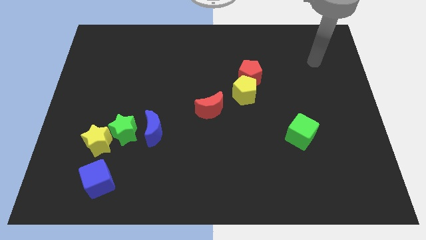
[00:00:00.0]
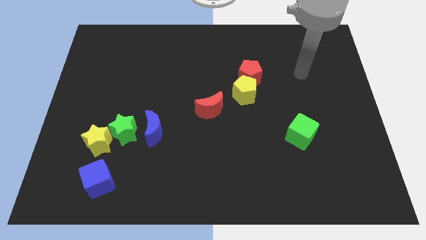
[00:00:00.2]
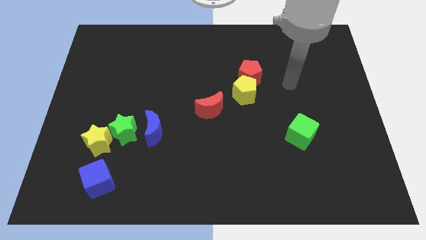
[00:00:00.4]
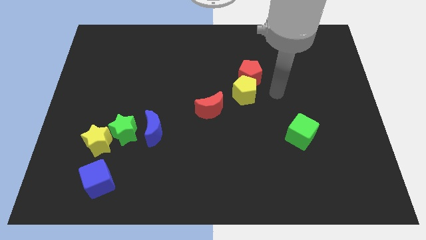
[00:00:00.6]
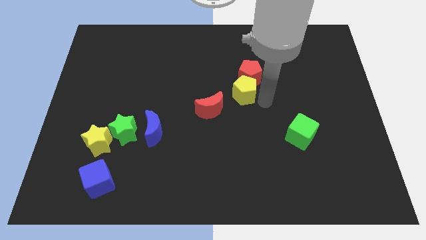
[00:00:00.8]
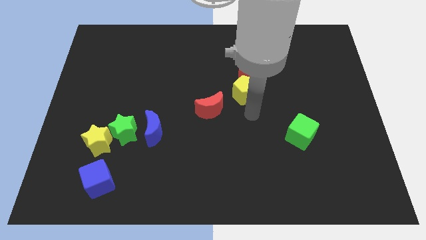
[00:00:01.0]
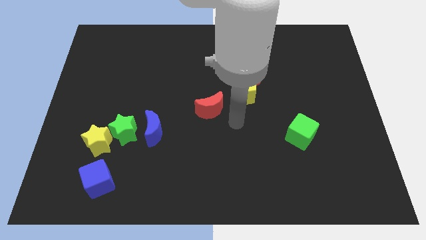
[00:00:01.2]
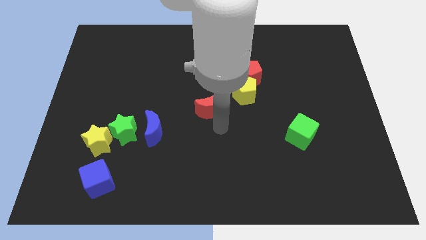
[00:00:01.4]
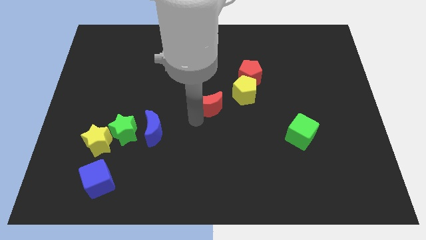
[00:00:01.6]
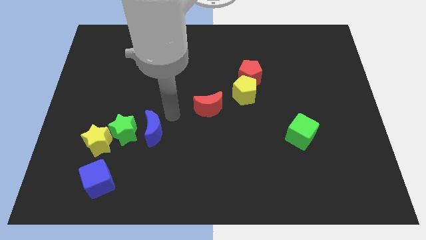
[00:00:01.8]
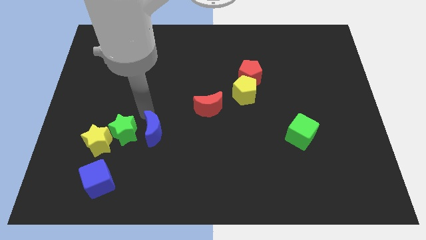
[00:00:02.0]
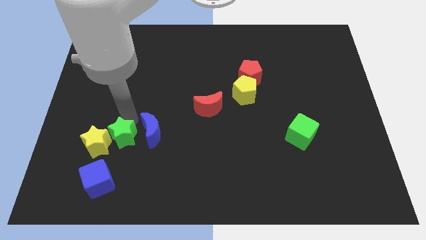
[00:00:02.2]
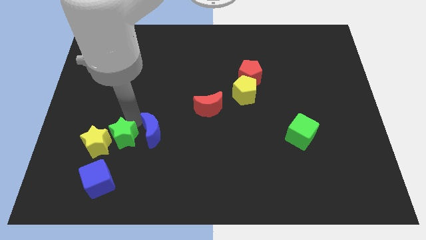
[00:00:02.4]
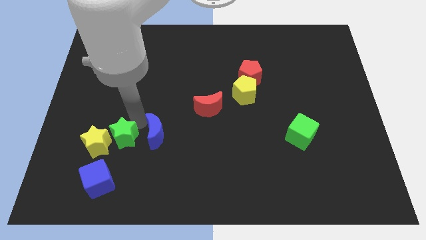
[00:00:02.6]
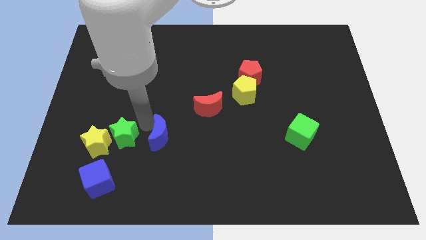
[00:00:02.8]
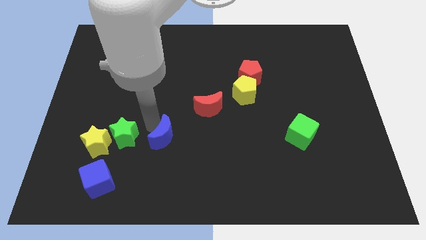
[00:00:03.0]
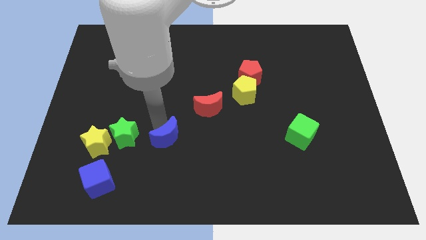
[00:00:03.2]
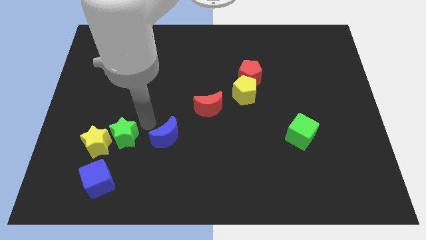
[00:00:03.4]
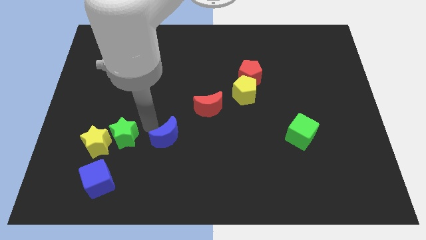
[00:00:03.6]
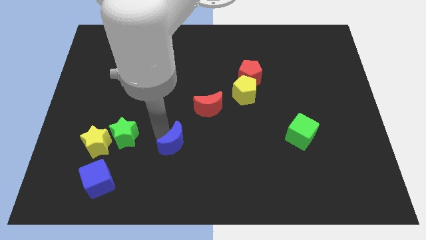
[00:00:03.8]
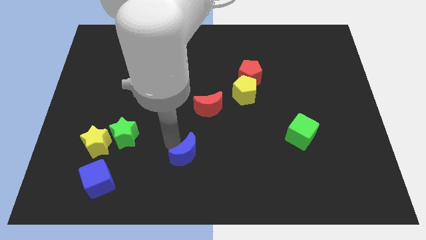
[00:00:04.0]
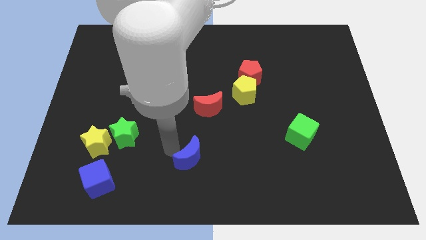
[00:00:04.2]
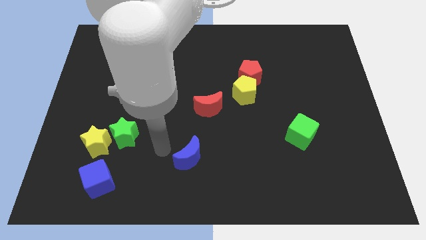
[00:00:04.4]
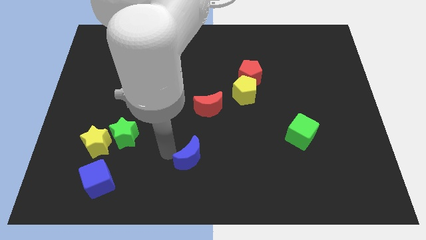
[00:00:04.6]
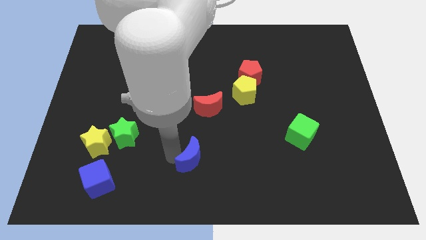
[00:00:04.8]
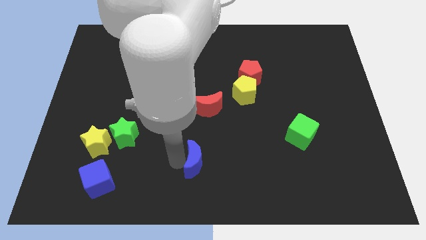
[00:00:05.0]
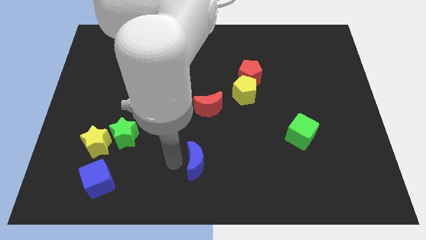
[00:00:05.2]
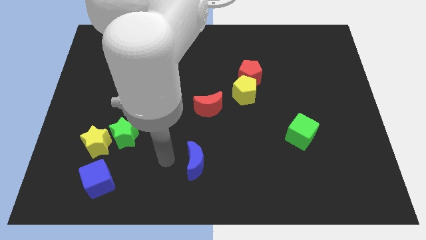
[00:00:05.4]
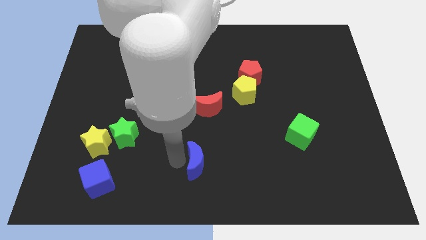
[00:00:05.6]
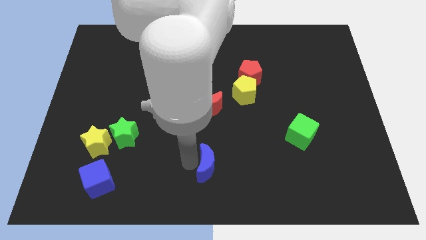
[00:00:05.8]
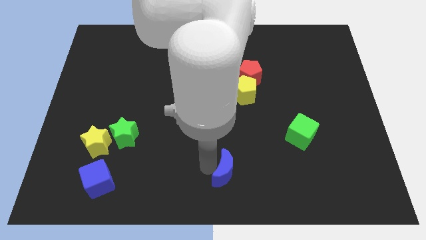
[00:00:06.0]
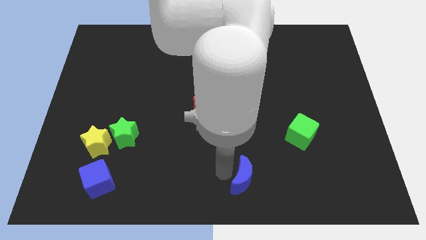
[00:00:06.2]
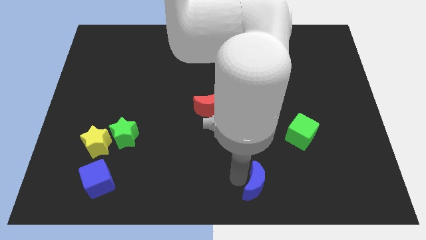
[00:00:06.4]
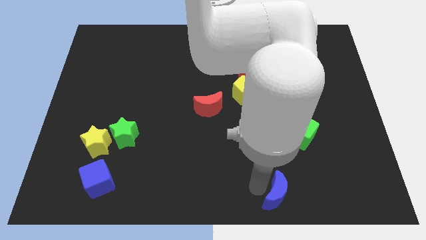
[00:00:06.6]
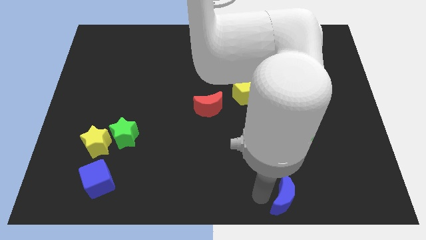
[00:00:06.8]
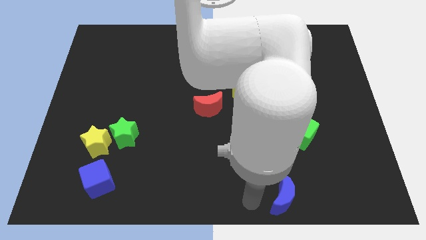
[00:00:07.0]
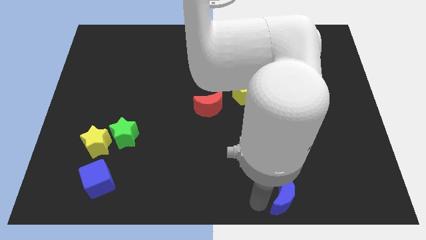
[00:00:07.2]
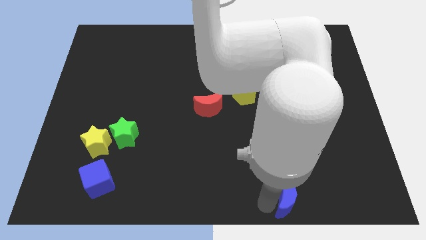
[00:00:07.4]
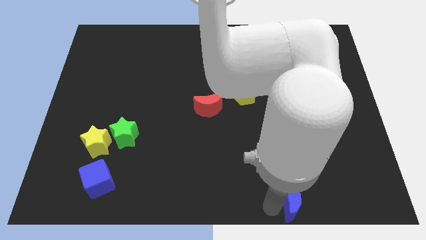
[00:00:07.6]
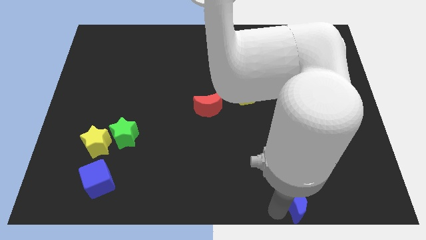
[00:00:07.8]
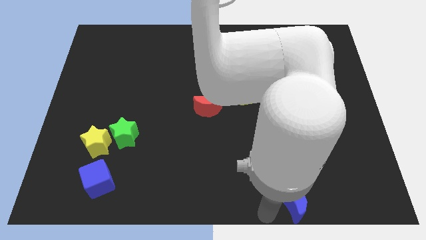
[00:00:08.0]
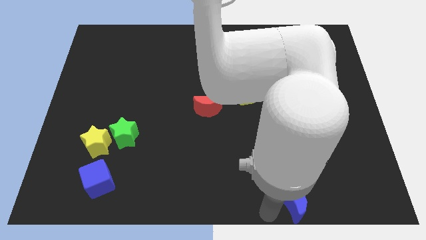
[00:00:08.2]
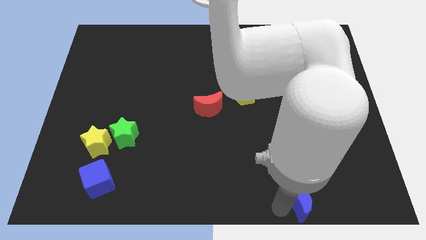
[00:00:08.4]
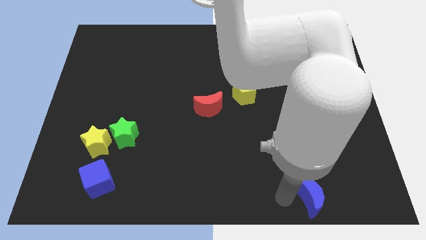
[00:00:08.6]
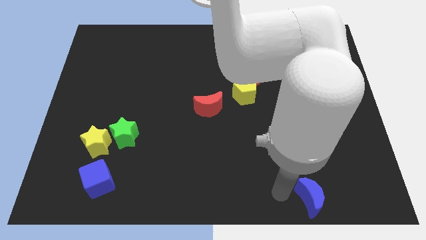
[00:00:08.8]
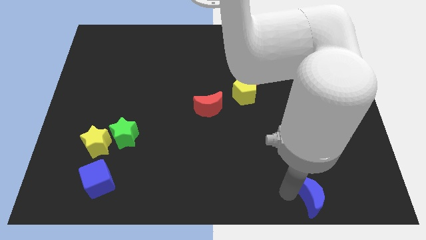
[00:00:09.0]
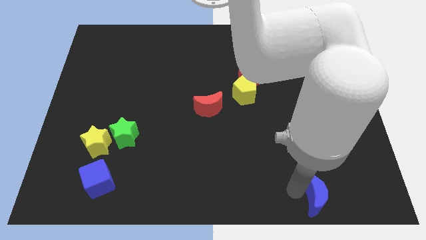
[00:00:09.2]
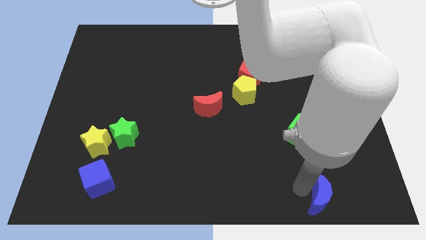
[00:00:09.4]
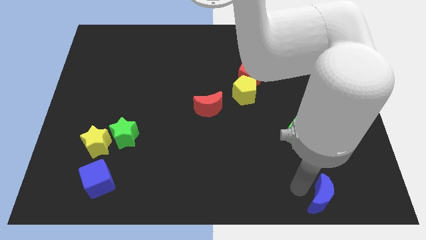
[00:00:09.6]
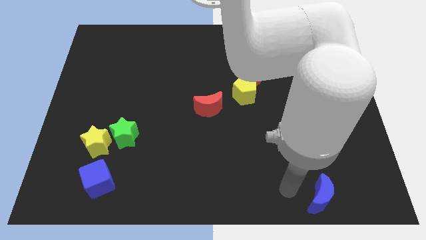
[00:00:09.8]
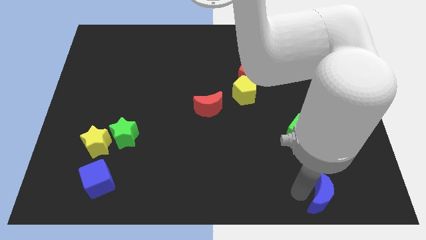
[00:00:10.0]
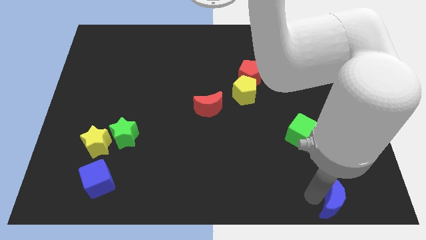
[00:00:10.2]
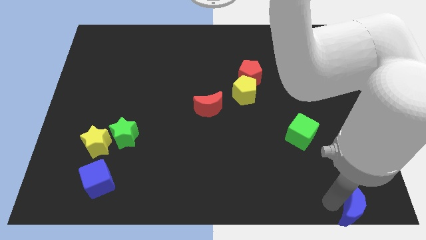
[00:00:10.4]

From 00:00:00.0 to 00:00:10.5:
slide the blue moon to the bottom right
